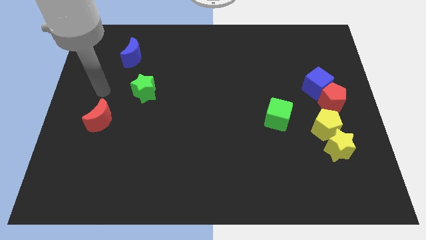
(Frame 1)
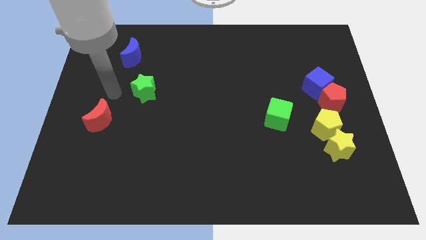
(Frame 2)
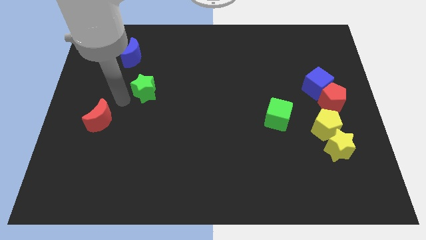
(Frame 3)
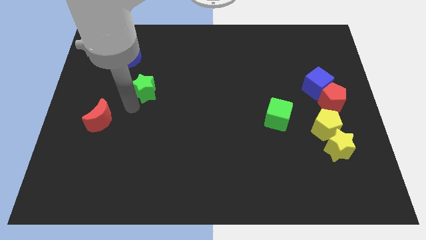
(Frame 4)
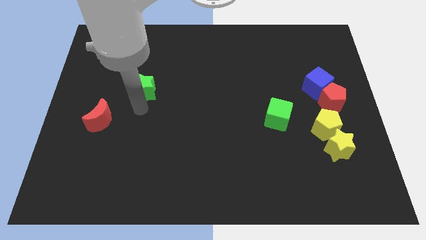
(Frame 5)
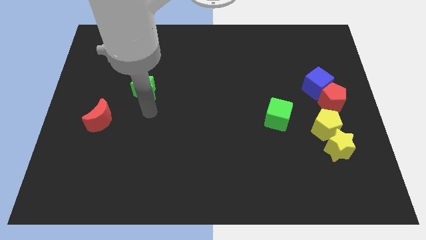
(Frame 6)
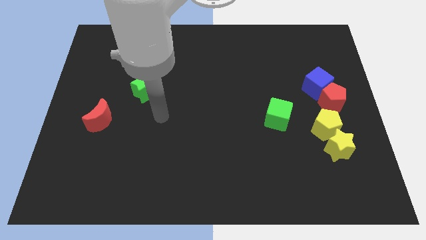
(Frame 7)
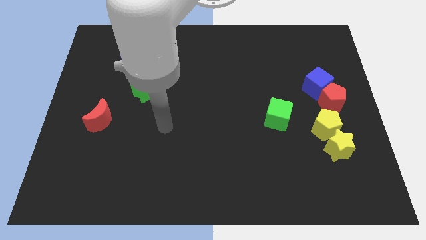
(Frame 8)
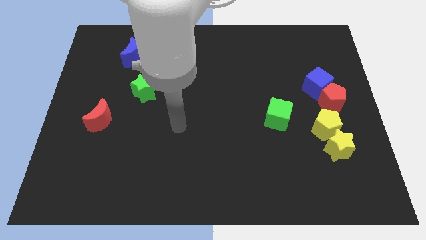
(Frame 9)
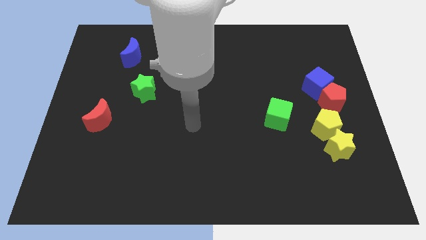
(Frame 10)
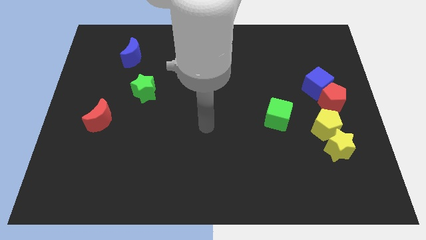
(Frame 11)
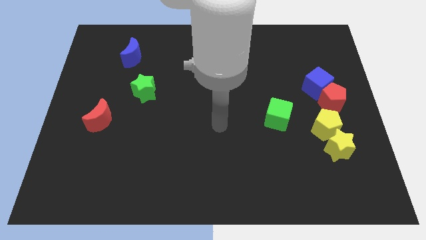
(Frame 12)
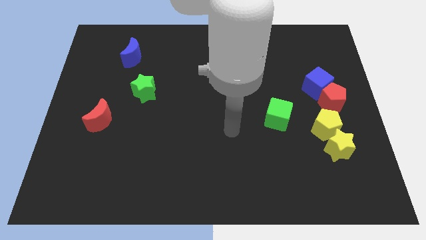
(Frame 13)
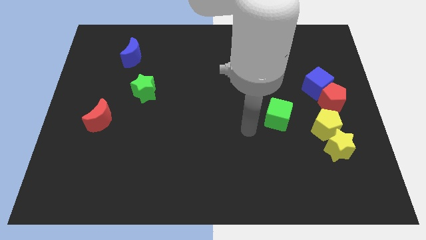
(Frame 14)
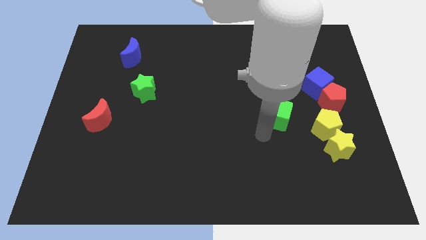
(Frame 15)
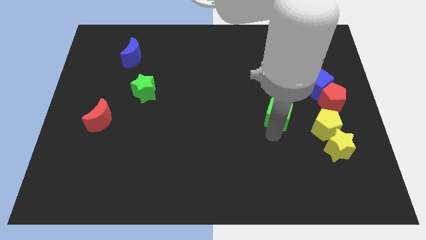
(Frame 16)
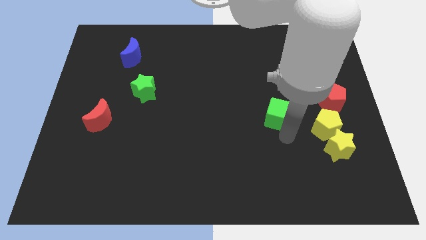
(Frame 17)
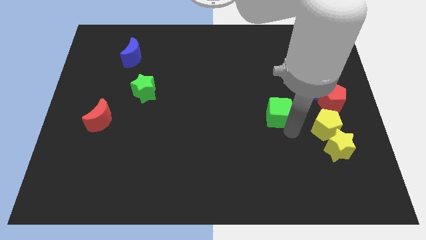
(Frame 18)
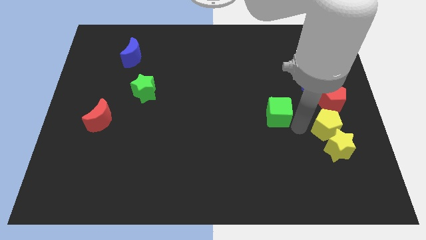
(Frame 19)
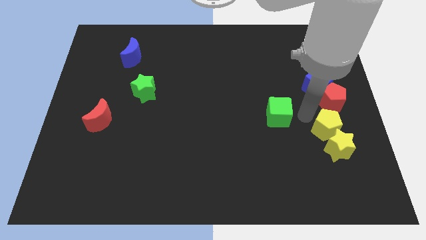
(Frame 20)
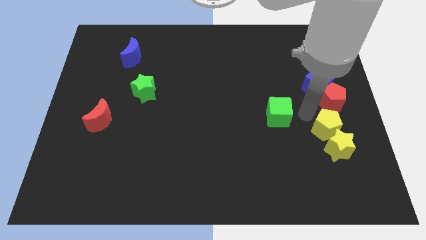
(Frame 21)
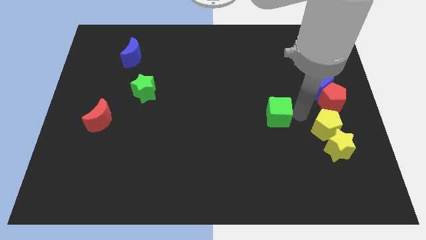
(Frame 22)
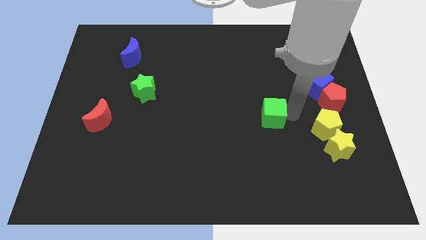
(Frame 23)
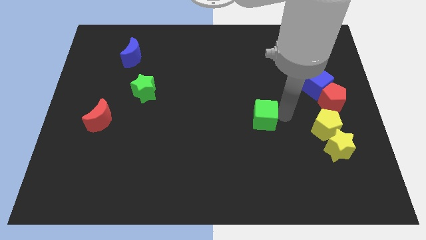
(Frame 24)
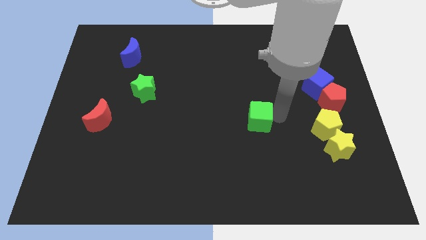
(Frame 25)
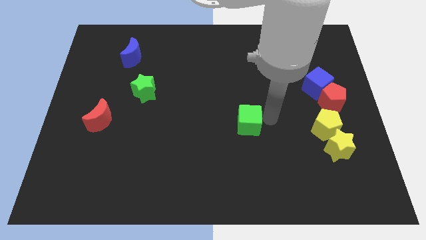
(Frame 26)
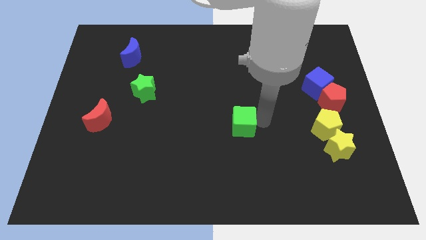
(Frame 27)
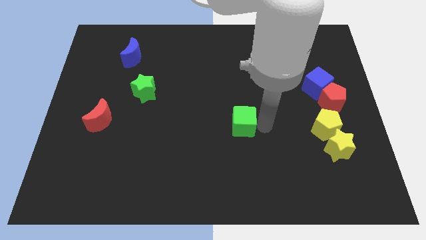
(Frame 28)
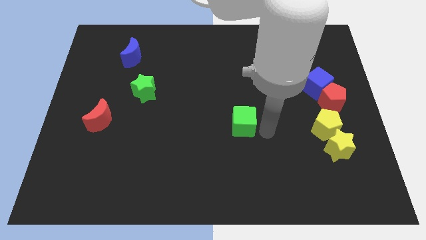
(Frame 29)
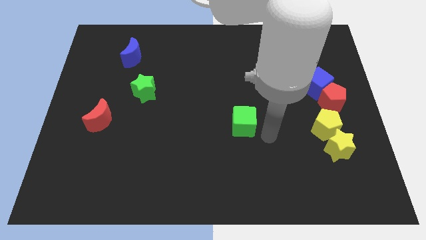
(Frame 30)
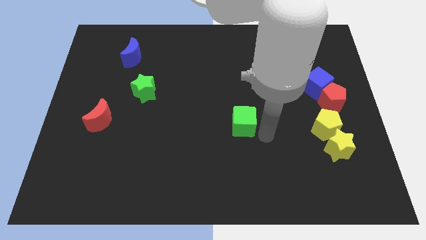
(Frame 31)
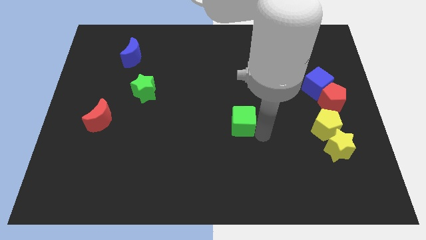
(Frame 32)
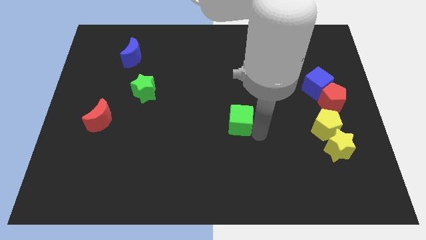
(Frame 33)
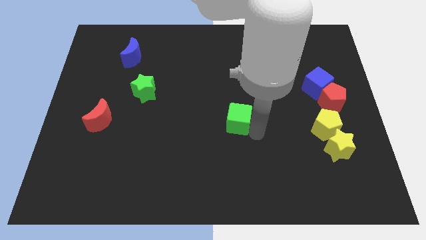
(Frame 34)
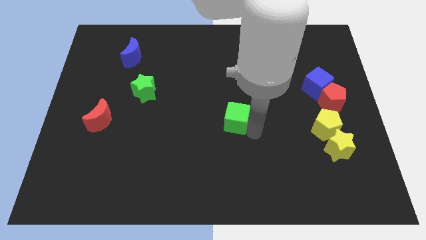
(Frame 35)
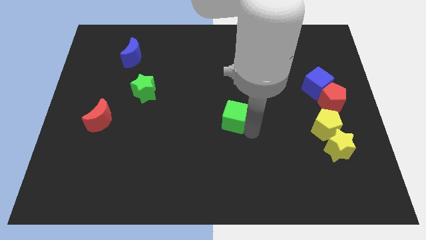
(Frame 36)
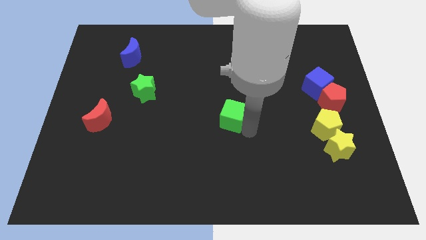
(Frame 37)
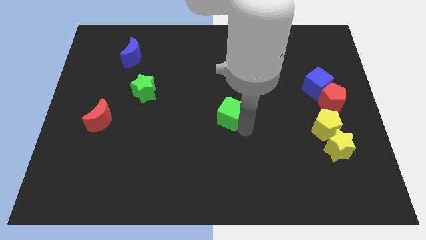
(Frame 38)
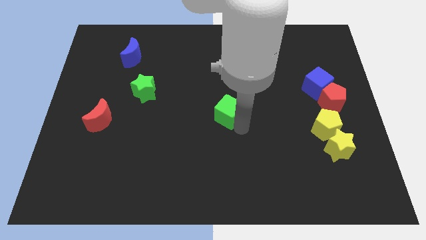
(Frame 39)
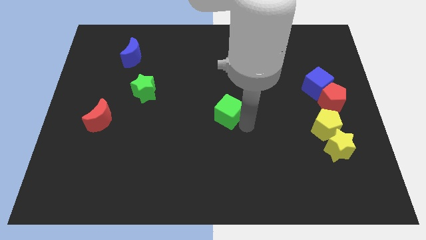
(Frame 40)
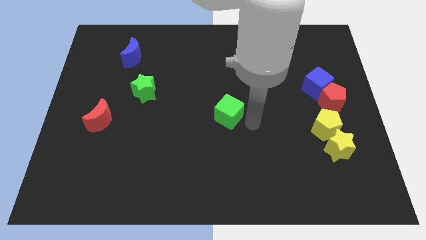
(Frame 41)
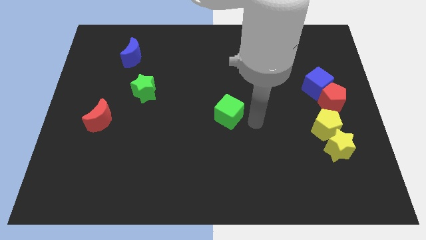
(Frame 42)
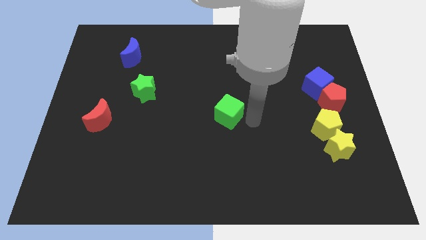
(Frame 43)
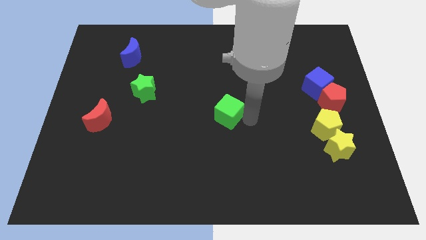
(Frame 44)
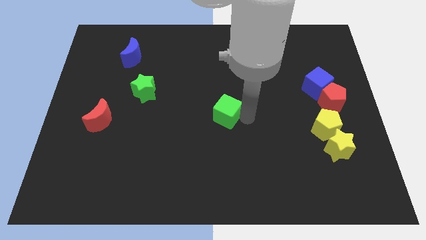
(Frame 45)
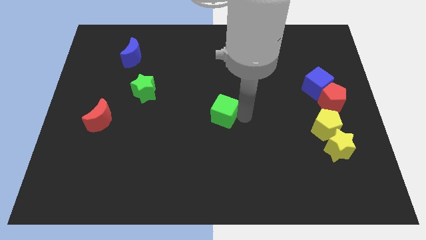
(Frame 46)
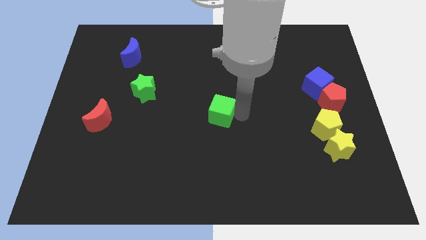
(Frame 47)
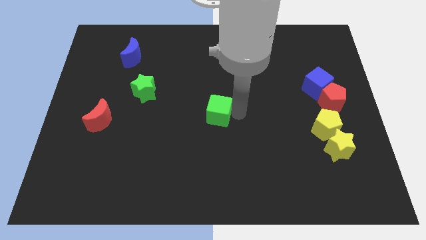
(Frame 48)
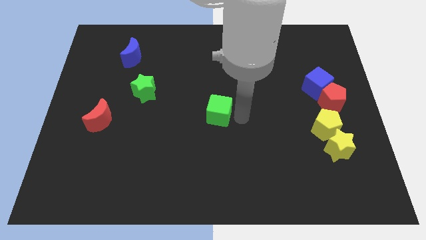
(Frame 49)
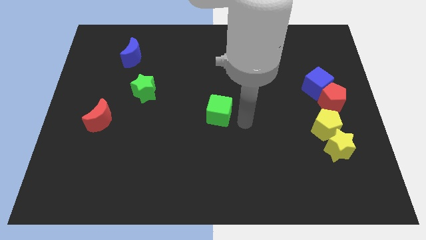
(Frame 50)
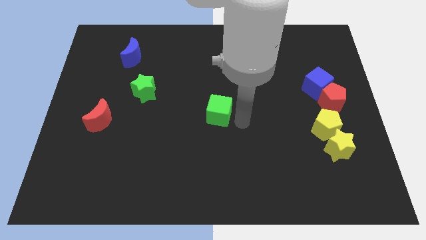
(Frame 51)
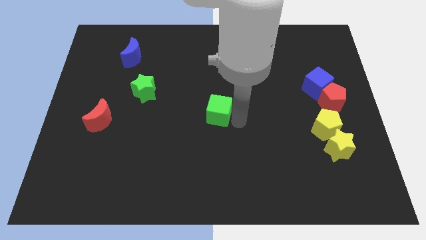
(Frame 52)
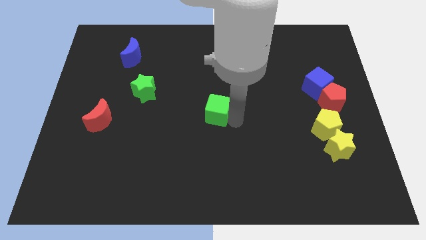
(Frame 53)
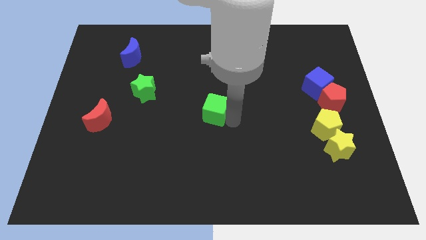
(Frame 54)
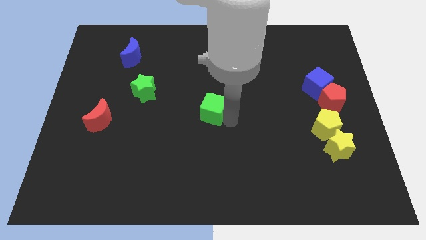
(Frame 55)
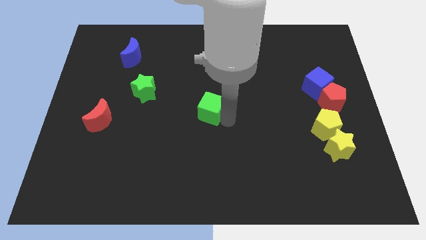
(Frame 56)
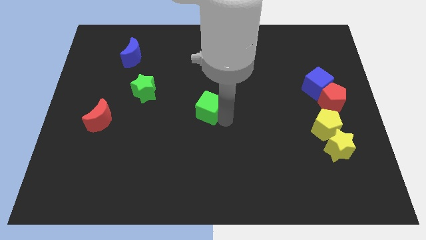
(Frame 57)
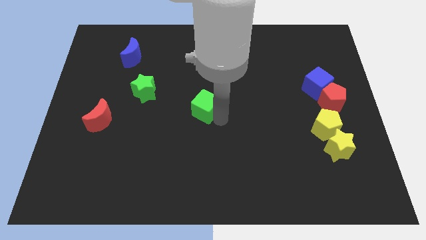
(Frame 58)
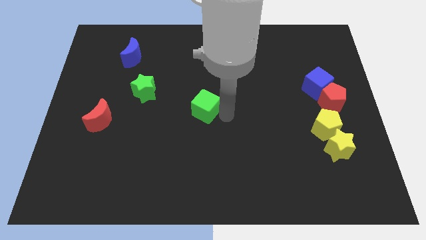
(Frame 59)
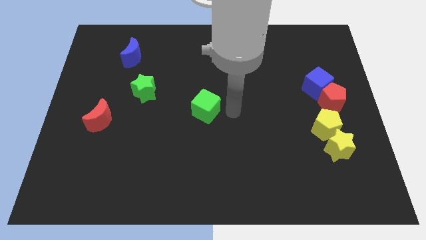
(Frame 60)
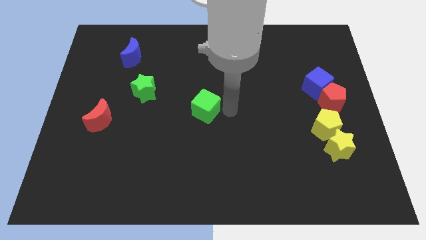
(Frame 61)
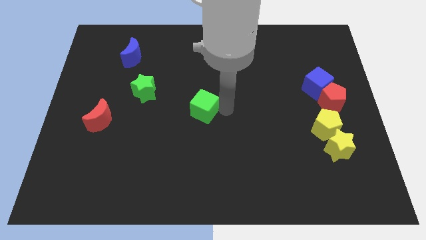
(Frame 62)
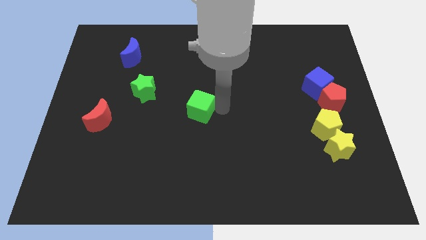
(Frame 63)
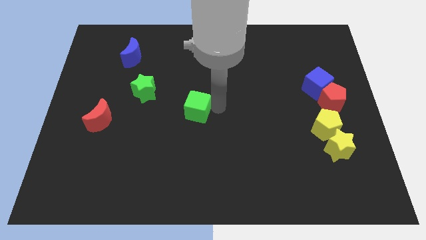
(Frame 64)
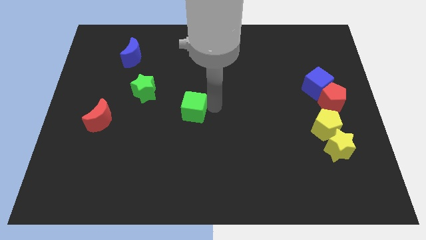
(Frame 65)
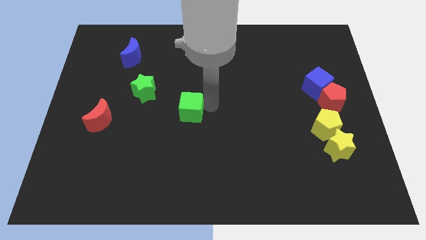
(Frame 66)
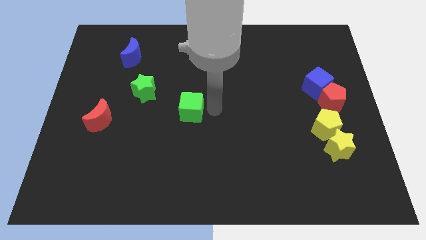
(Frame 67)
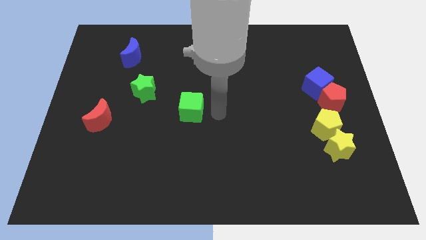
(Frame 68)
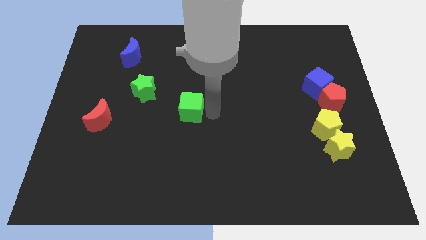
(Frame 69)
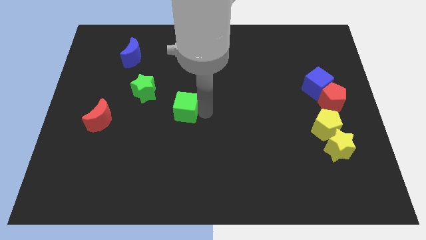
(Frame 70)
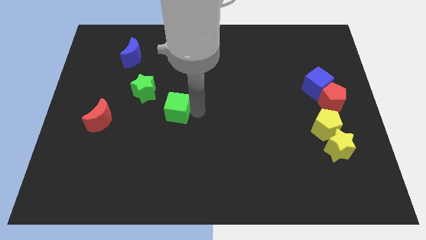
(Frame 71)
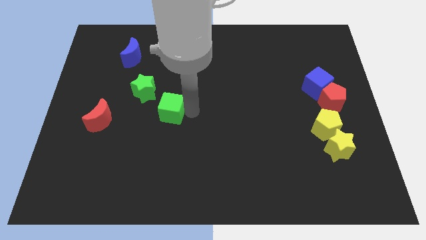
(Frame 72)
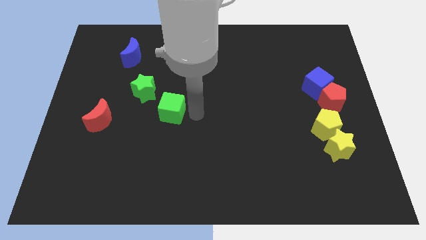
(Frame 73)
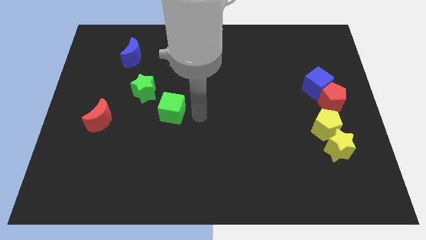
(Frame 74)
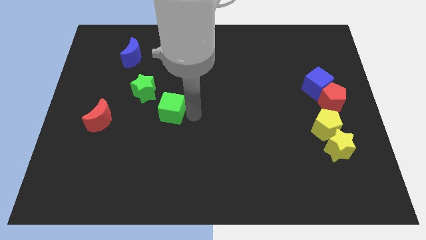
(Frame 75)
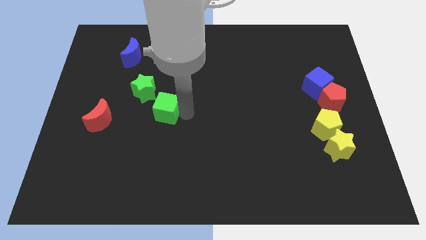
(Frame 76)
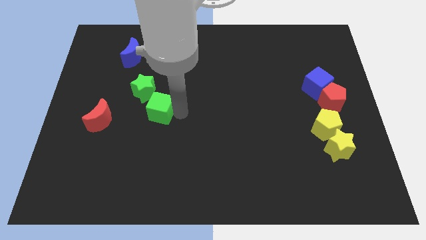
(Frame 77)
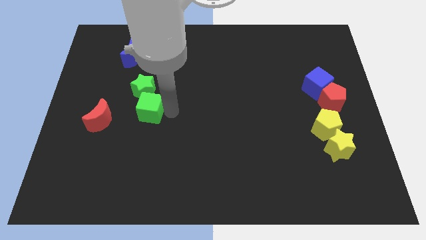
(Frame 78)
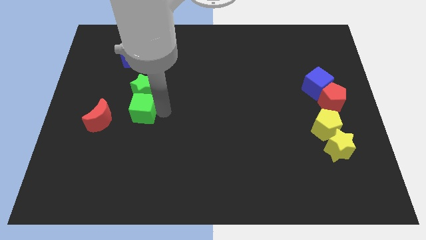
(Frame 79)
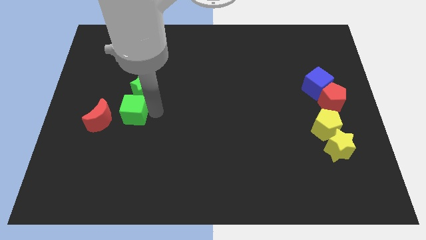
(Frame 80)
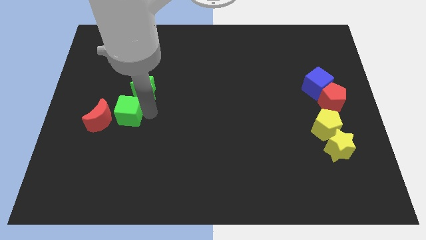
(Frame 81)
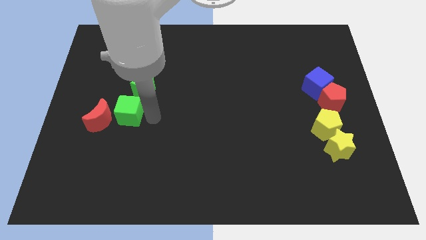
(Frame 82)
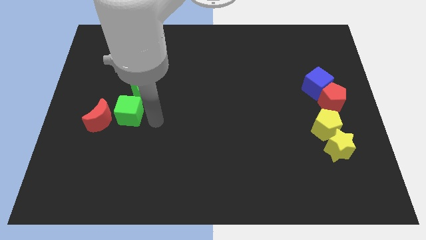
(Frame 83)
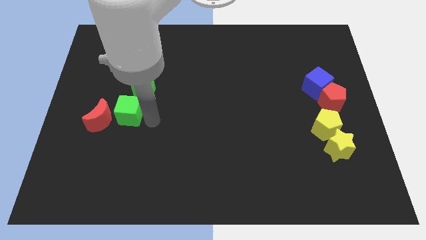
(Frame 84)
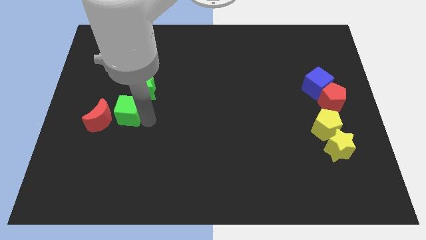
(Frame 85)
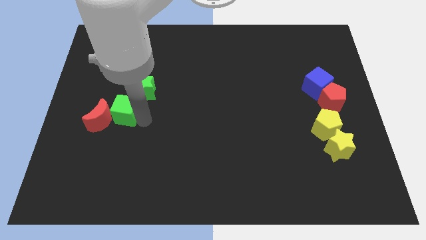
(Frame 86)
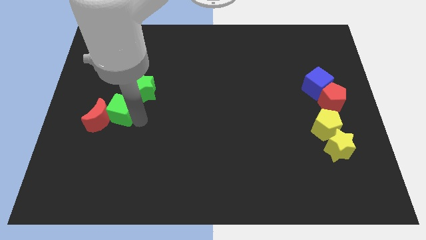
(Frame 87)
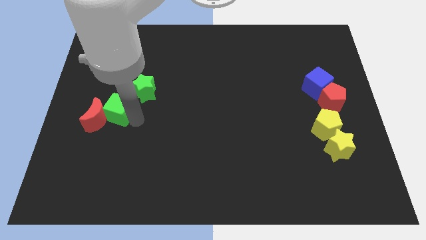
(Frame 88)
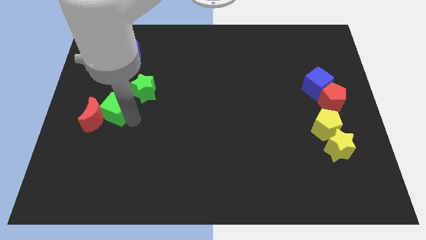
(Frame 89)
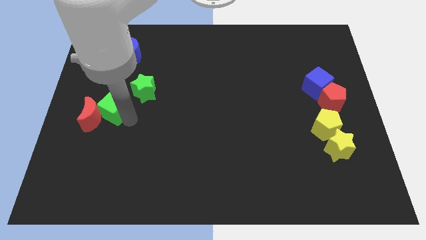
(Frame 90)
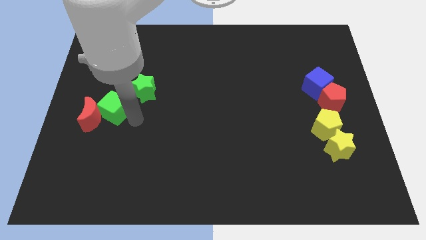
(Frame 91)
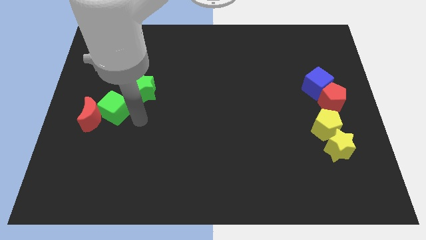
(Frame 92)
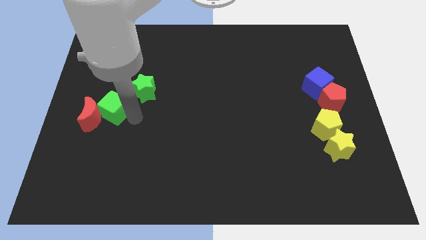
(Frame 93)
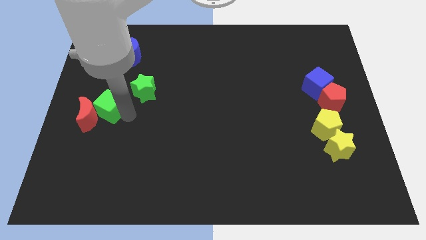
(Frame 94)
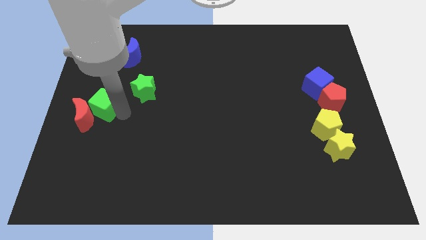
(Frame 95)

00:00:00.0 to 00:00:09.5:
slide the green cube to the center left
